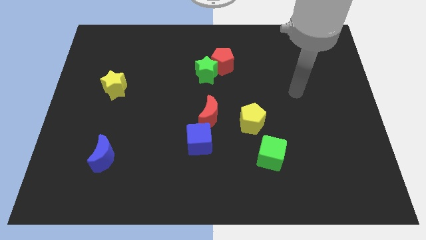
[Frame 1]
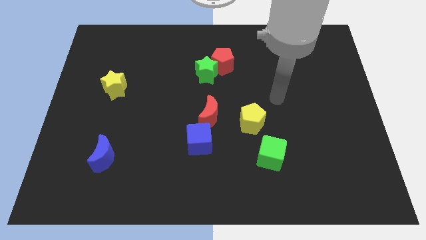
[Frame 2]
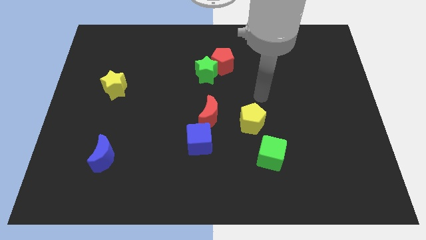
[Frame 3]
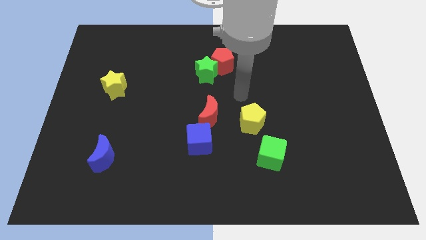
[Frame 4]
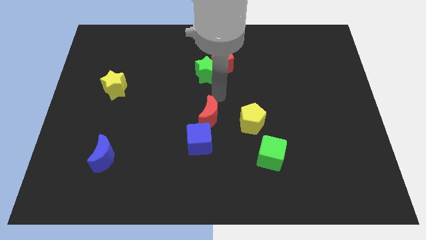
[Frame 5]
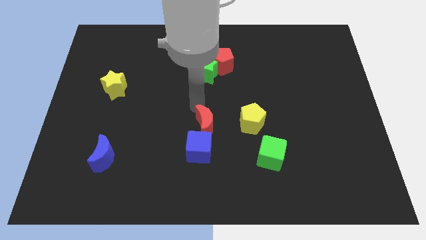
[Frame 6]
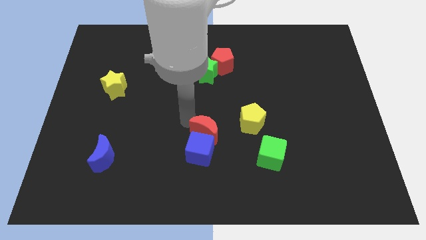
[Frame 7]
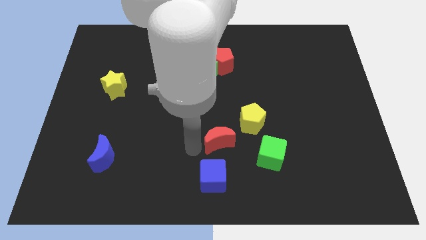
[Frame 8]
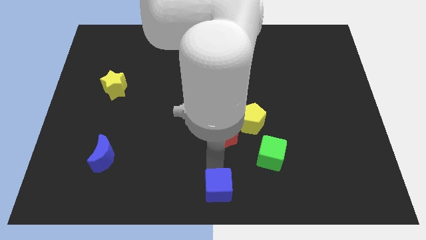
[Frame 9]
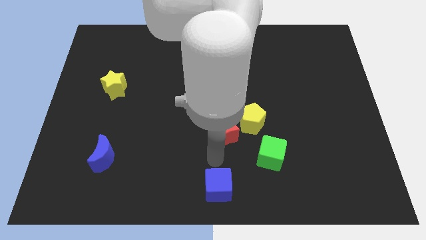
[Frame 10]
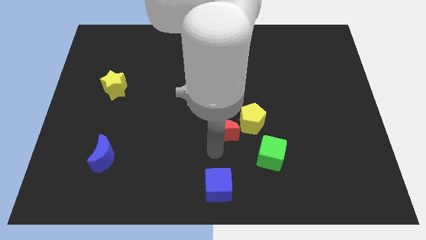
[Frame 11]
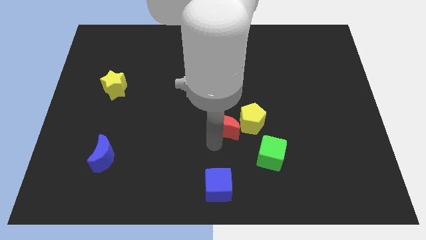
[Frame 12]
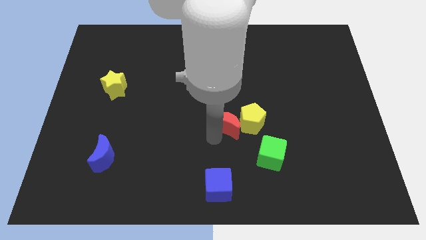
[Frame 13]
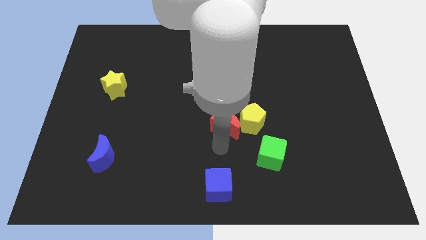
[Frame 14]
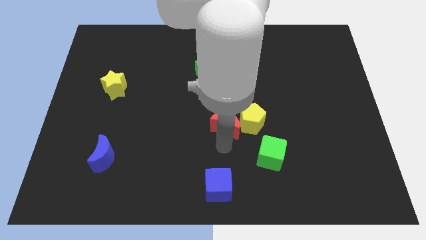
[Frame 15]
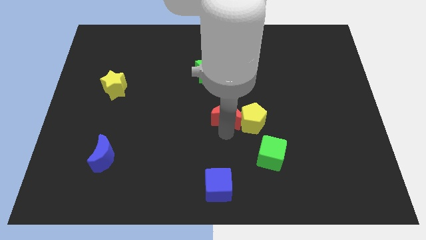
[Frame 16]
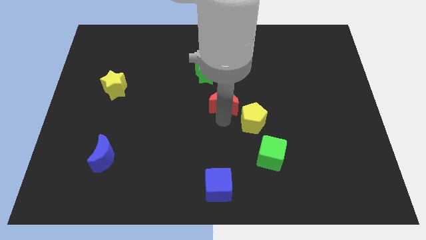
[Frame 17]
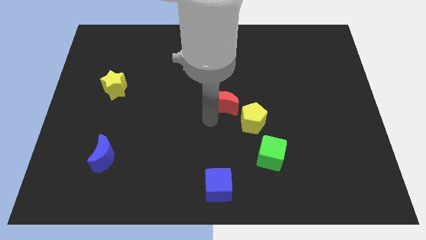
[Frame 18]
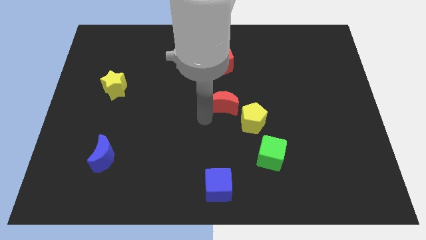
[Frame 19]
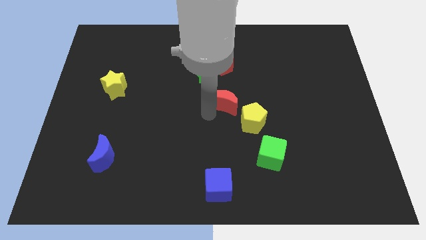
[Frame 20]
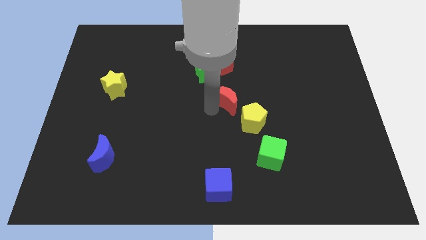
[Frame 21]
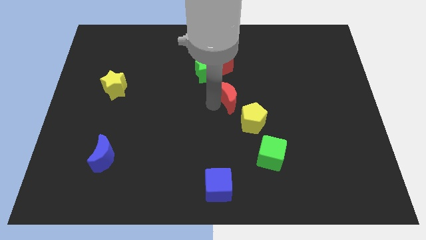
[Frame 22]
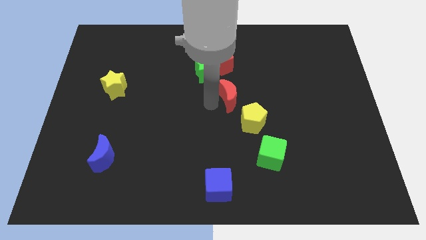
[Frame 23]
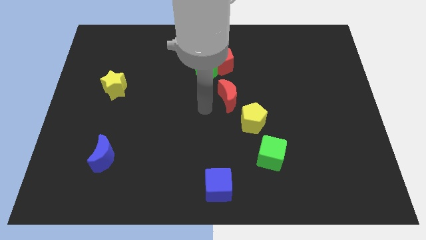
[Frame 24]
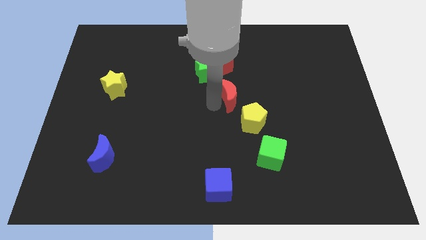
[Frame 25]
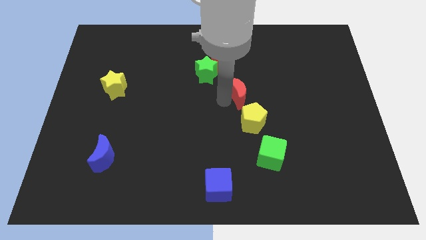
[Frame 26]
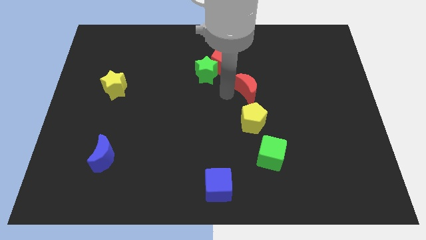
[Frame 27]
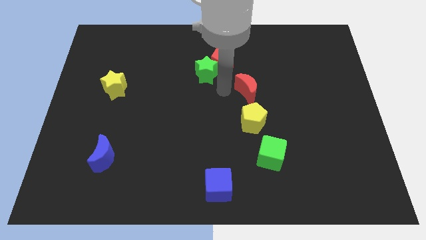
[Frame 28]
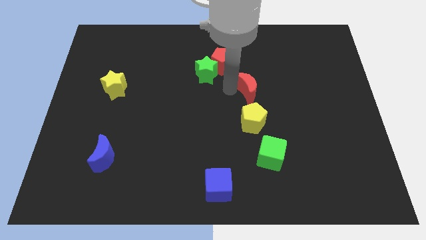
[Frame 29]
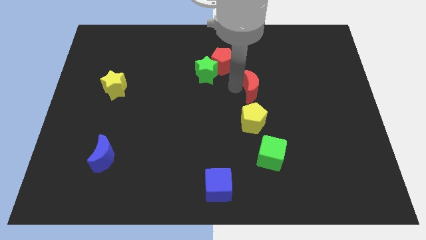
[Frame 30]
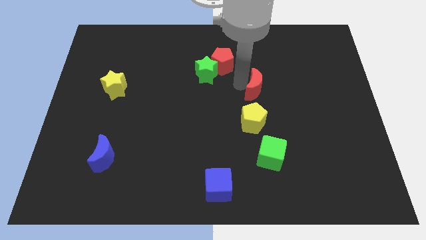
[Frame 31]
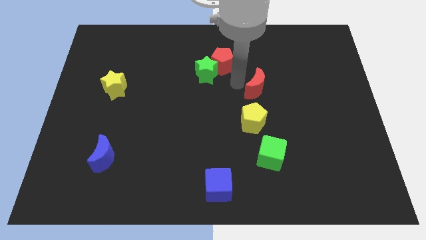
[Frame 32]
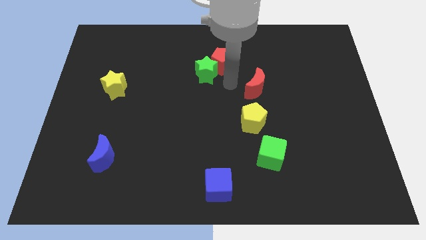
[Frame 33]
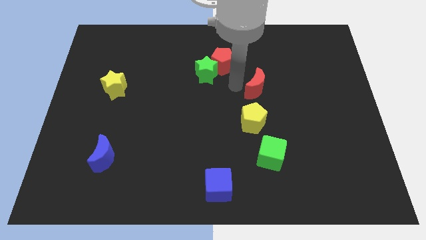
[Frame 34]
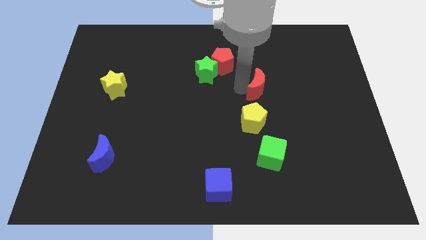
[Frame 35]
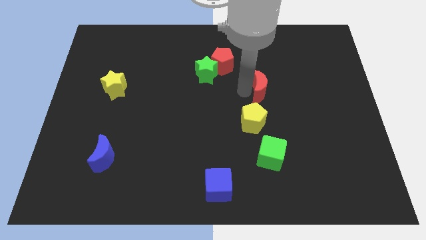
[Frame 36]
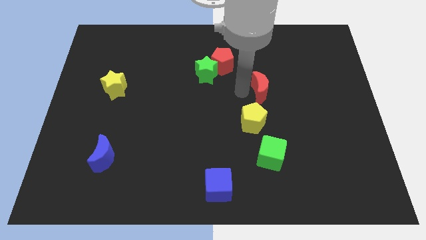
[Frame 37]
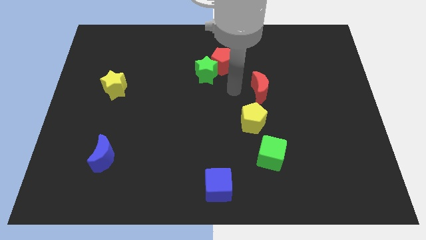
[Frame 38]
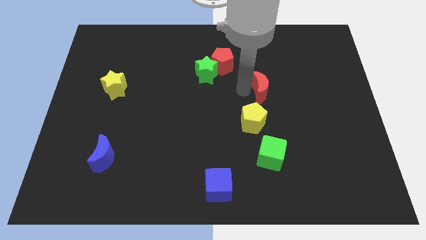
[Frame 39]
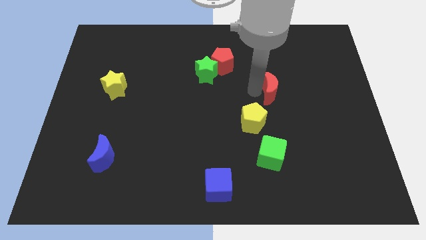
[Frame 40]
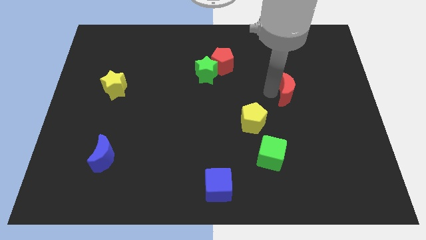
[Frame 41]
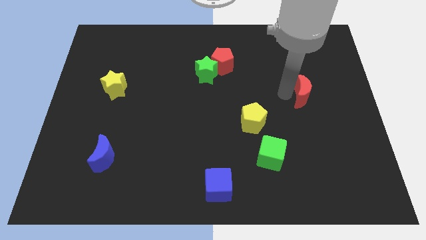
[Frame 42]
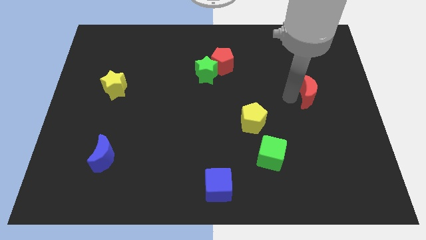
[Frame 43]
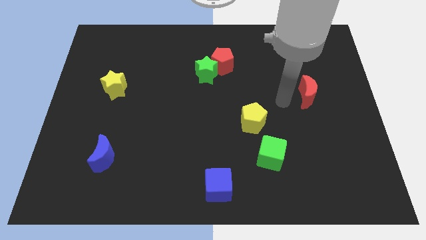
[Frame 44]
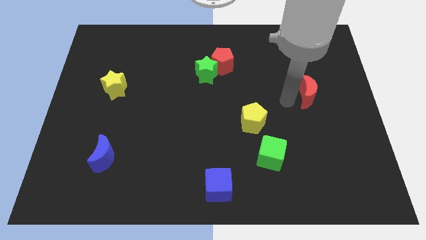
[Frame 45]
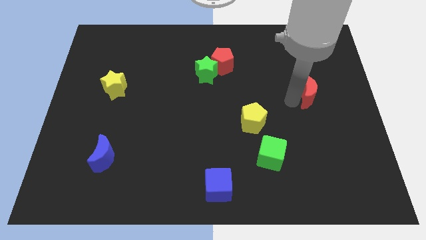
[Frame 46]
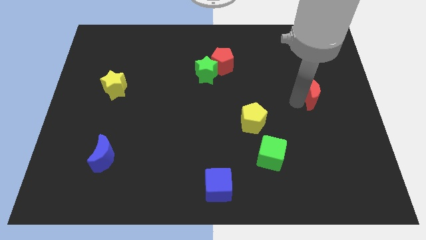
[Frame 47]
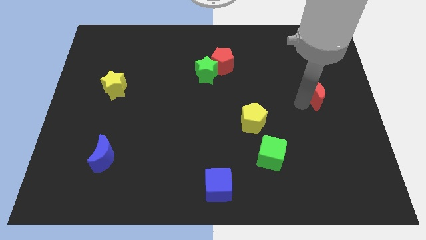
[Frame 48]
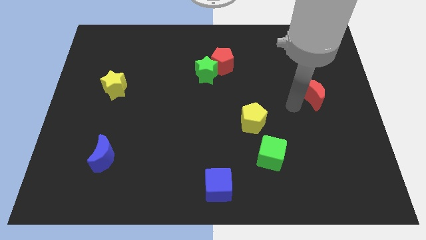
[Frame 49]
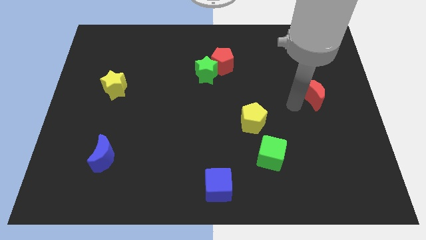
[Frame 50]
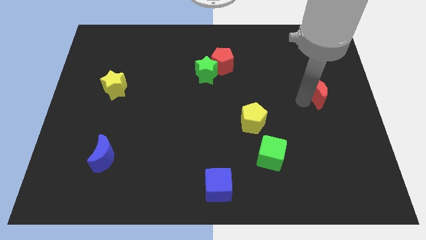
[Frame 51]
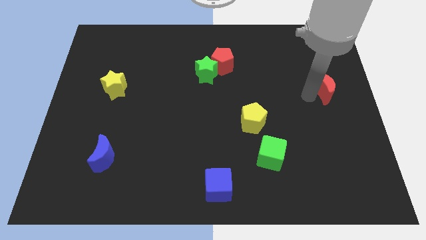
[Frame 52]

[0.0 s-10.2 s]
push the red moon to the right side of the board
